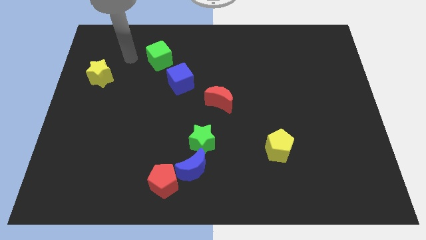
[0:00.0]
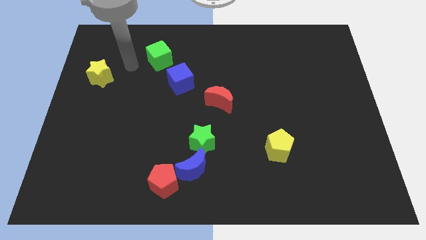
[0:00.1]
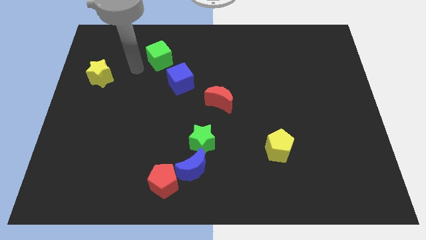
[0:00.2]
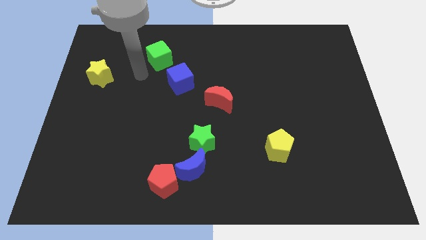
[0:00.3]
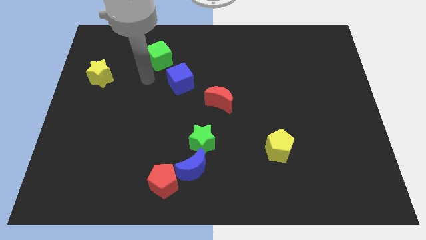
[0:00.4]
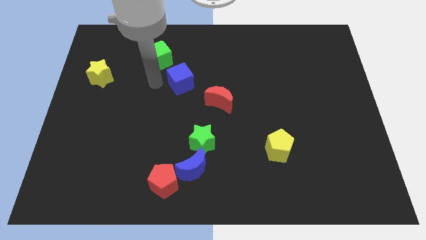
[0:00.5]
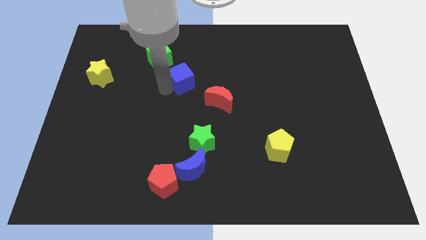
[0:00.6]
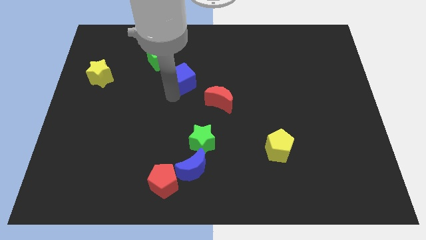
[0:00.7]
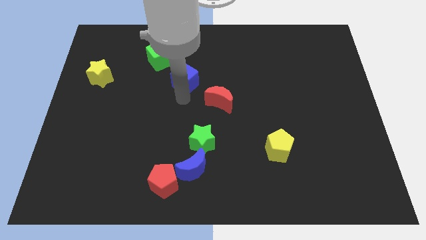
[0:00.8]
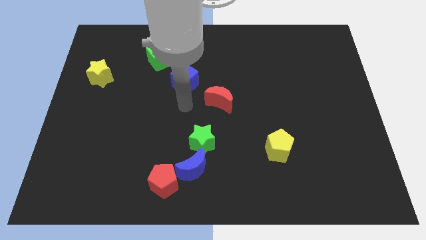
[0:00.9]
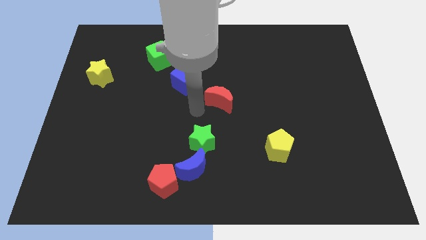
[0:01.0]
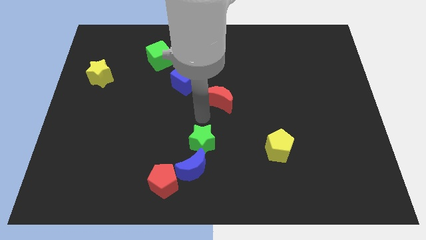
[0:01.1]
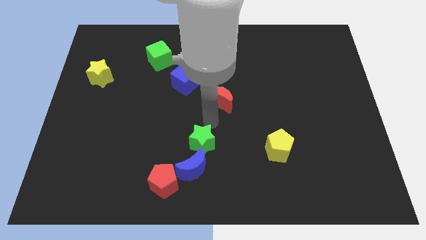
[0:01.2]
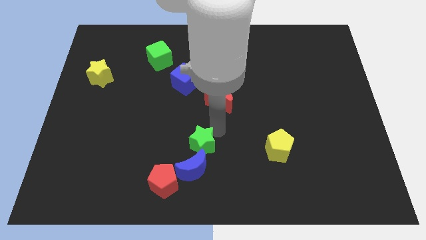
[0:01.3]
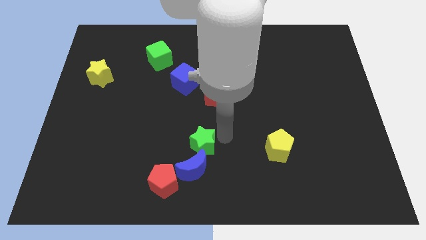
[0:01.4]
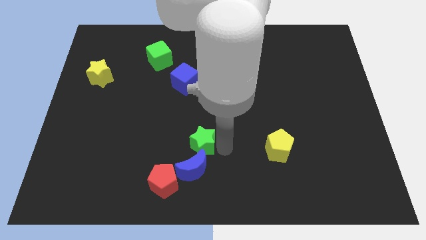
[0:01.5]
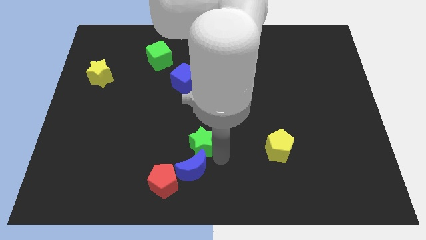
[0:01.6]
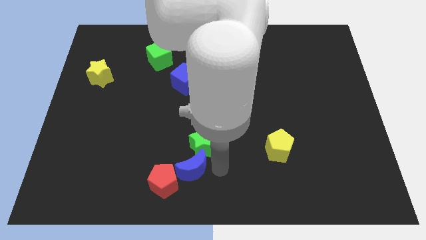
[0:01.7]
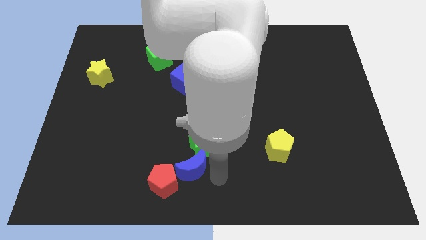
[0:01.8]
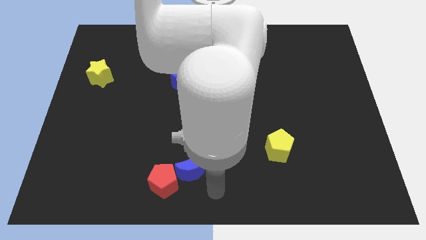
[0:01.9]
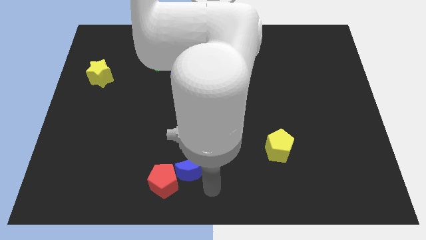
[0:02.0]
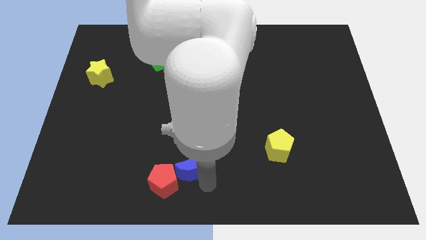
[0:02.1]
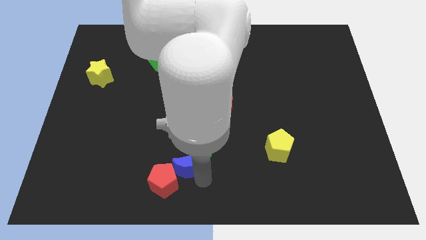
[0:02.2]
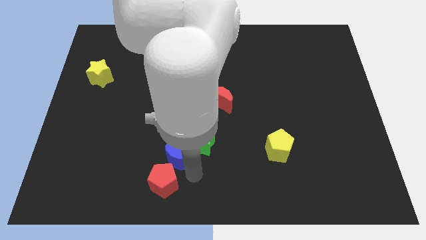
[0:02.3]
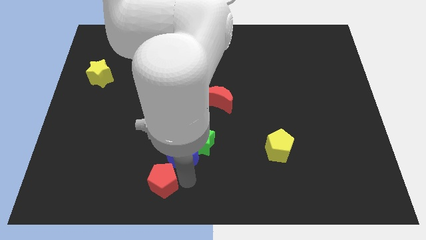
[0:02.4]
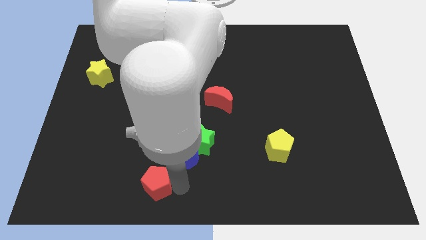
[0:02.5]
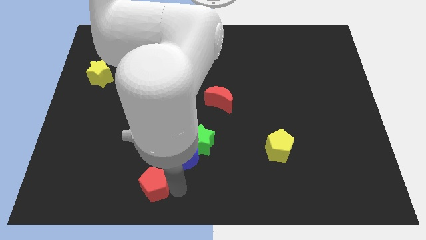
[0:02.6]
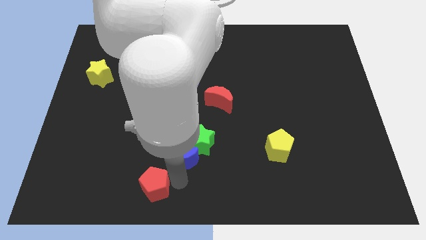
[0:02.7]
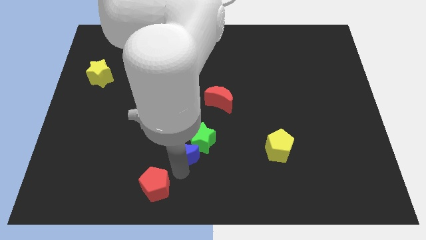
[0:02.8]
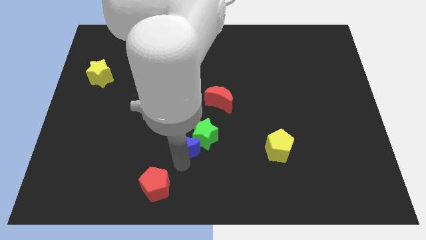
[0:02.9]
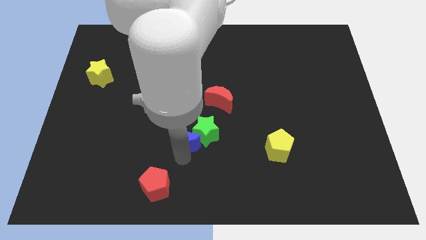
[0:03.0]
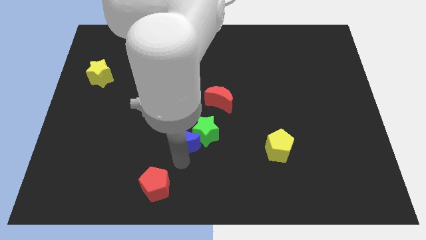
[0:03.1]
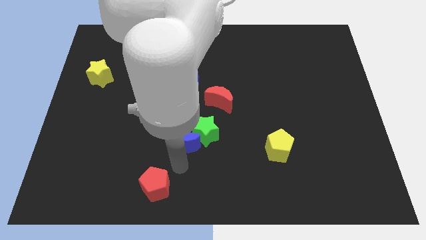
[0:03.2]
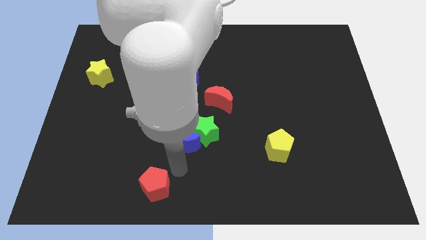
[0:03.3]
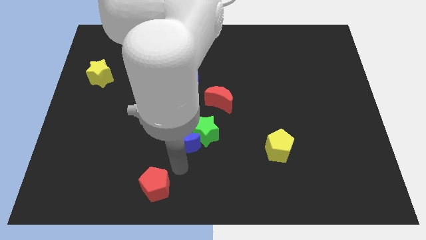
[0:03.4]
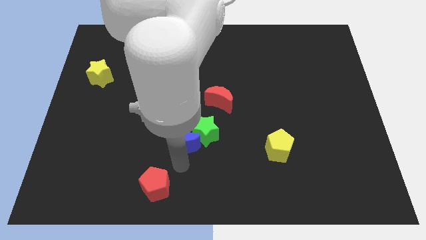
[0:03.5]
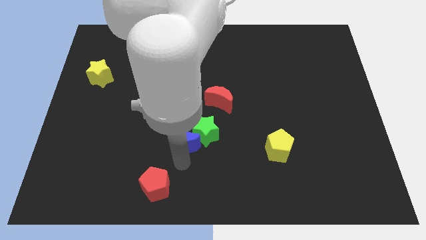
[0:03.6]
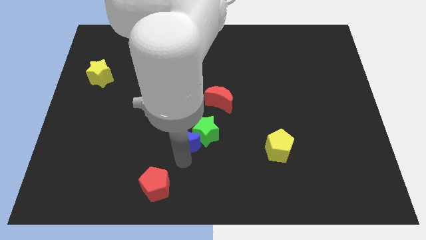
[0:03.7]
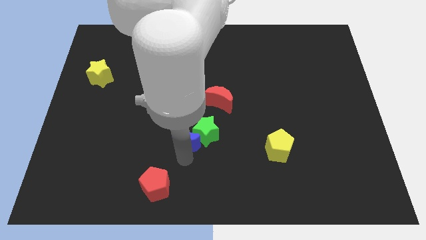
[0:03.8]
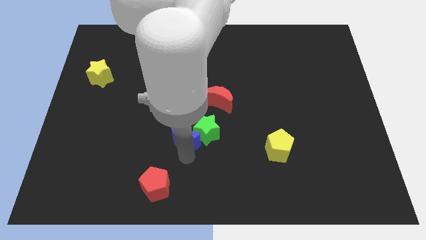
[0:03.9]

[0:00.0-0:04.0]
slide the blue moon upwards a little

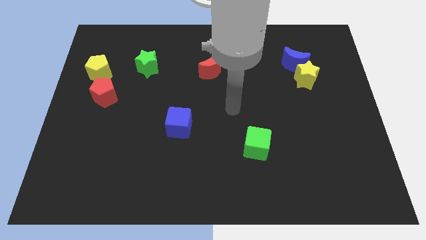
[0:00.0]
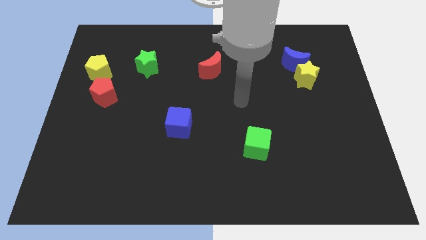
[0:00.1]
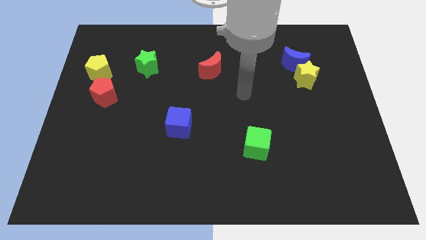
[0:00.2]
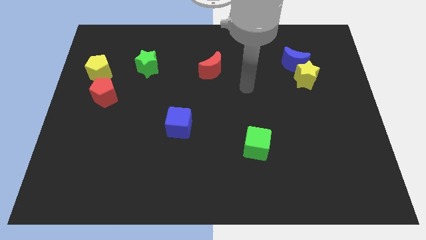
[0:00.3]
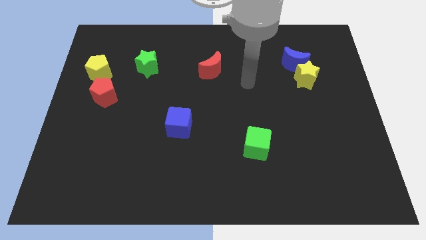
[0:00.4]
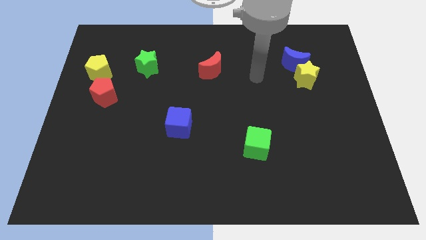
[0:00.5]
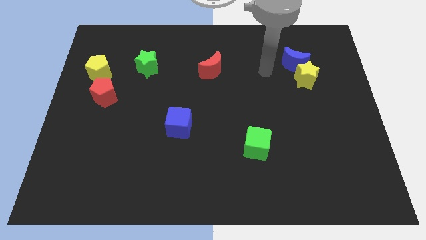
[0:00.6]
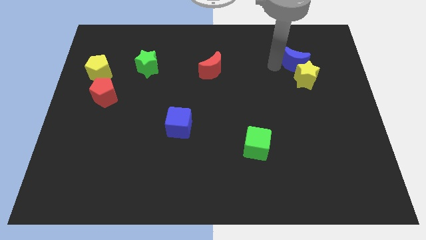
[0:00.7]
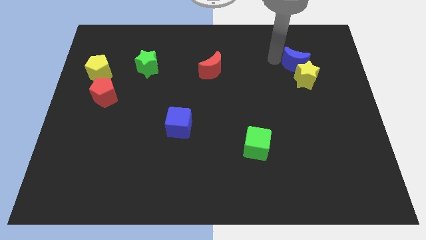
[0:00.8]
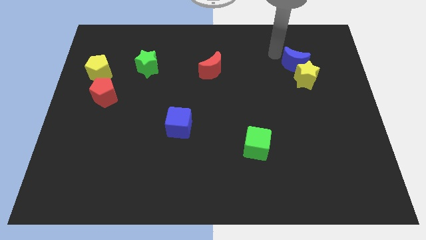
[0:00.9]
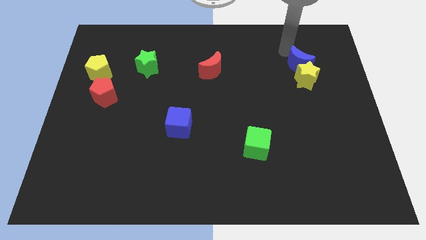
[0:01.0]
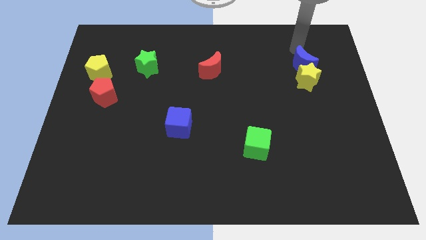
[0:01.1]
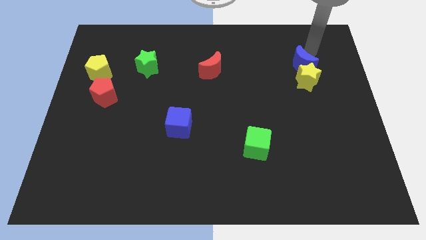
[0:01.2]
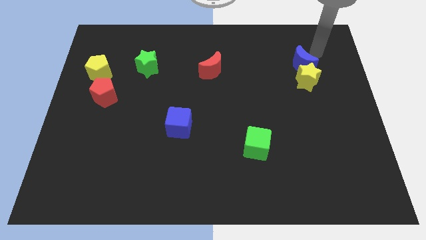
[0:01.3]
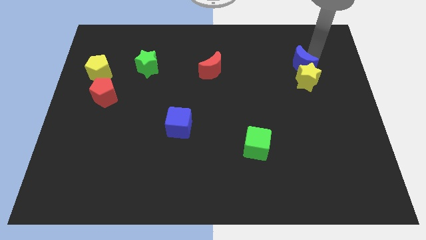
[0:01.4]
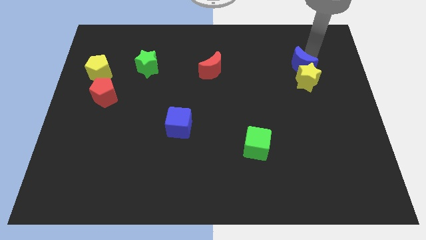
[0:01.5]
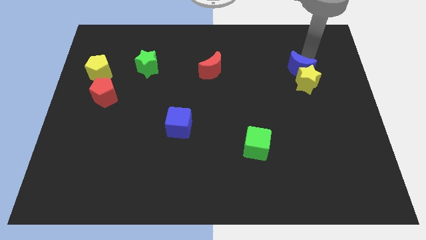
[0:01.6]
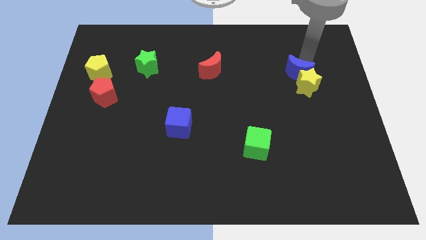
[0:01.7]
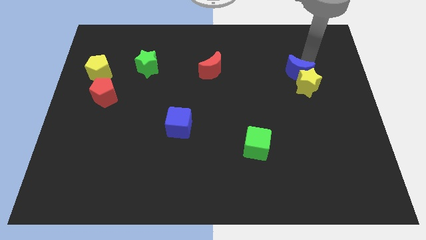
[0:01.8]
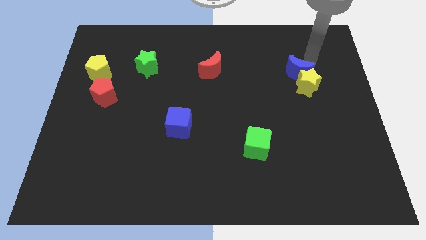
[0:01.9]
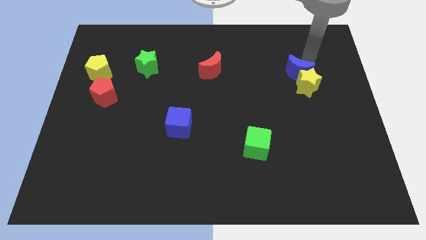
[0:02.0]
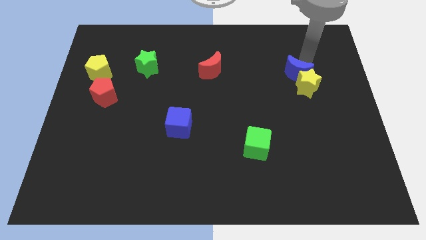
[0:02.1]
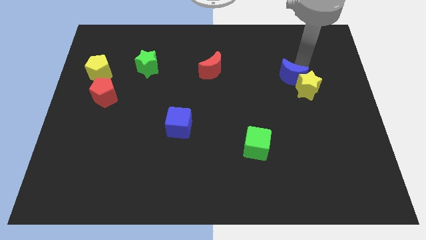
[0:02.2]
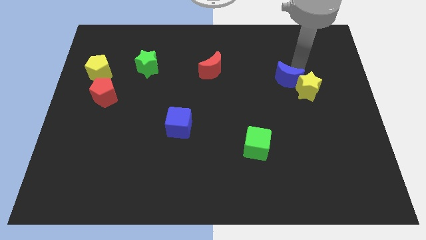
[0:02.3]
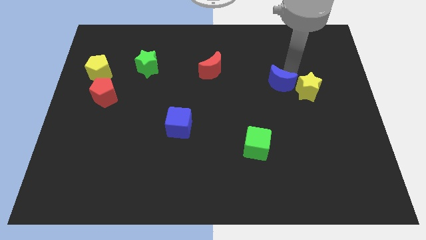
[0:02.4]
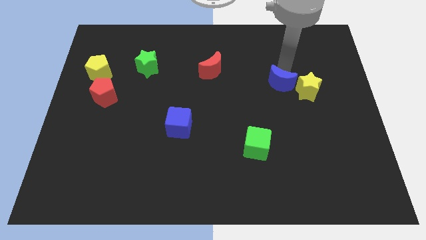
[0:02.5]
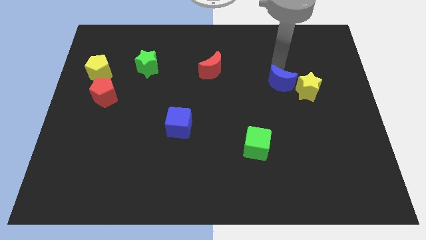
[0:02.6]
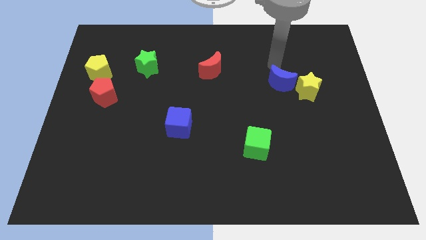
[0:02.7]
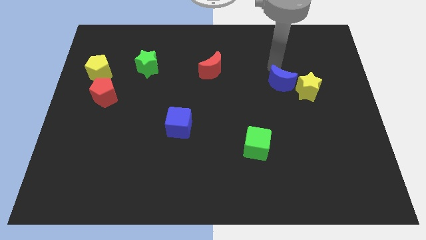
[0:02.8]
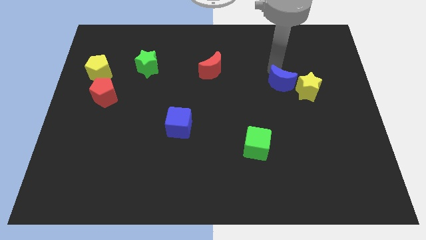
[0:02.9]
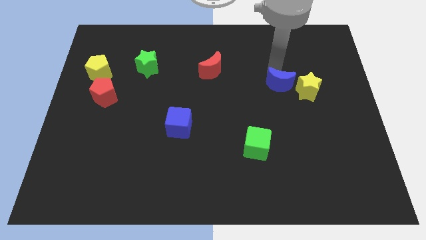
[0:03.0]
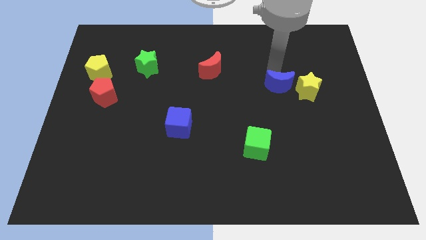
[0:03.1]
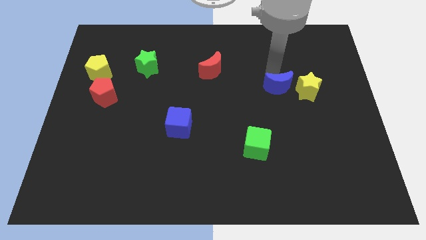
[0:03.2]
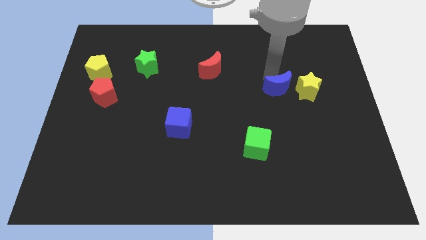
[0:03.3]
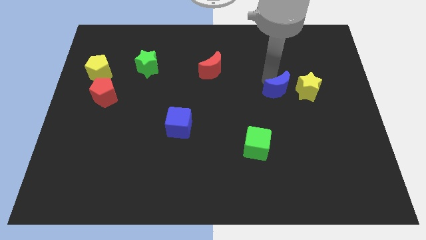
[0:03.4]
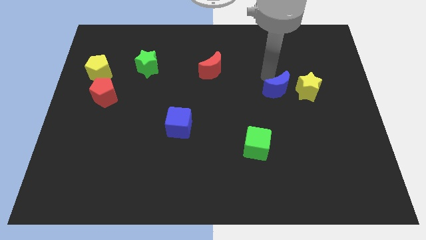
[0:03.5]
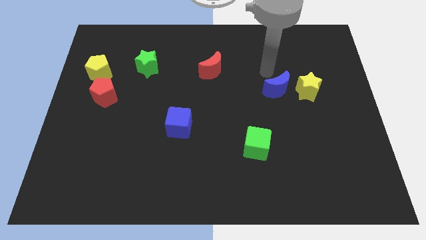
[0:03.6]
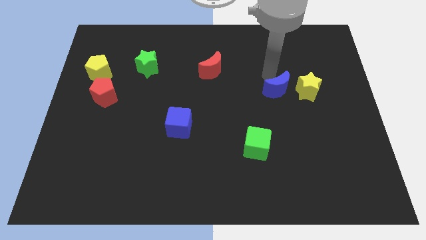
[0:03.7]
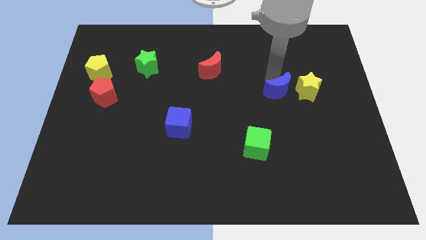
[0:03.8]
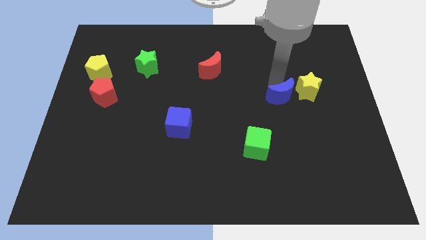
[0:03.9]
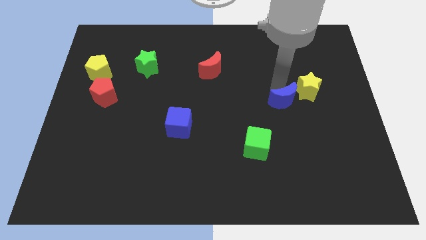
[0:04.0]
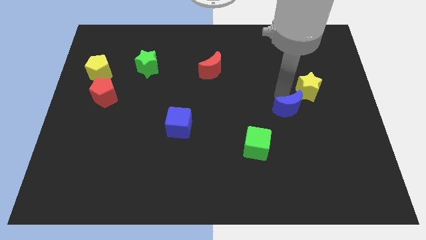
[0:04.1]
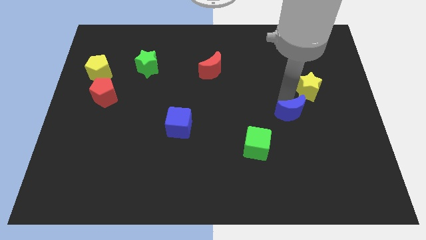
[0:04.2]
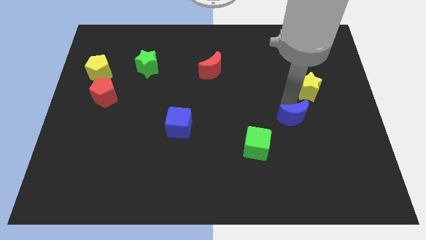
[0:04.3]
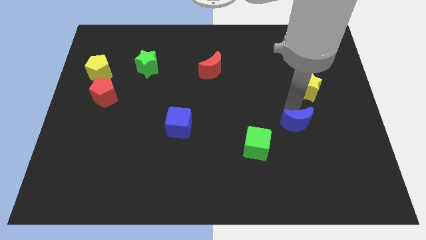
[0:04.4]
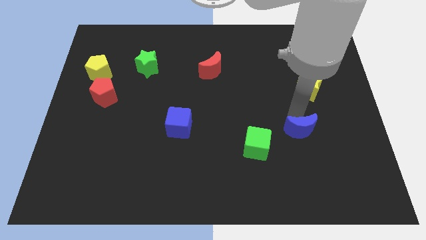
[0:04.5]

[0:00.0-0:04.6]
move the blue moon down
